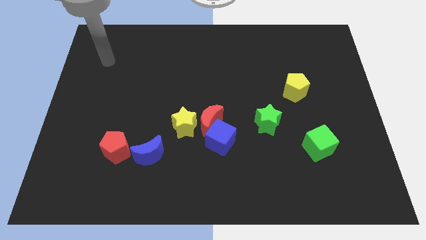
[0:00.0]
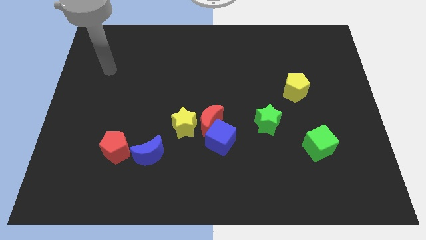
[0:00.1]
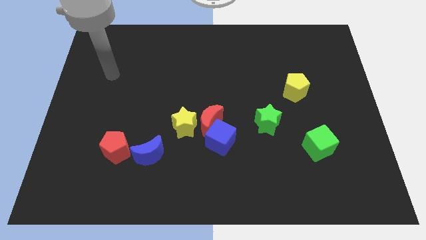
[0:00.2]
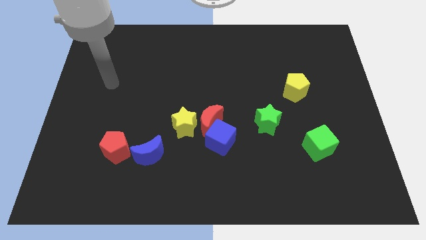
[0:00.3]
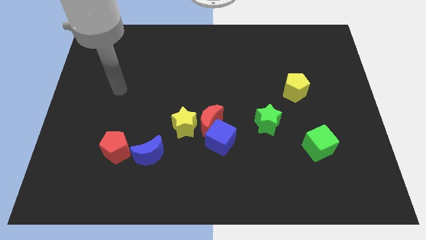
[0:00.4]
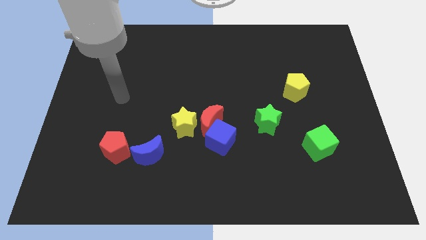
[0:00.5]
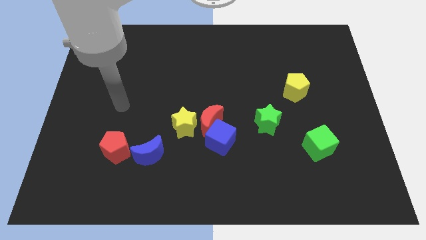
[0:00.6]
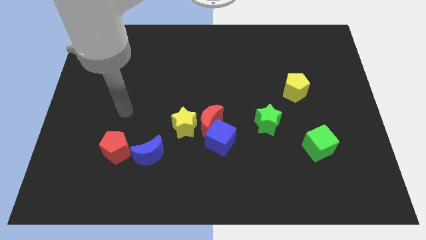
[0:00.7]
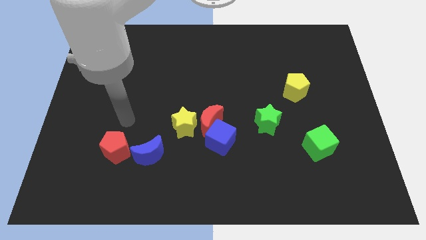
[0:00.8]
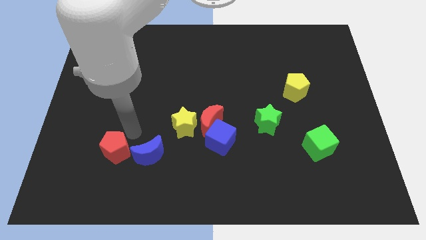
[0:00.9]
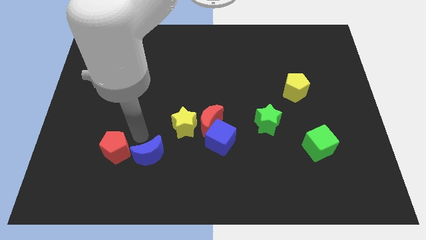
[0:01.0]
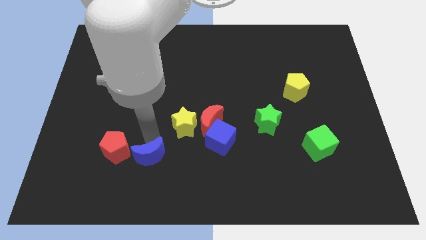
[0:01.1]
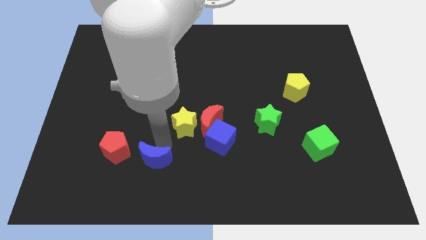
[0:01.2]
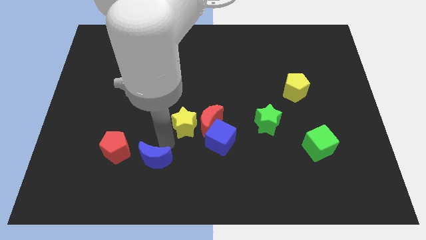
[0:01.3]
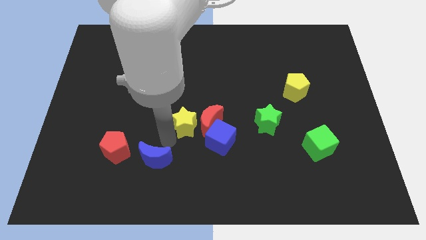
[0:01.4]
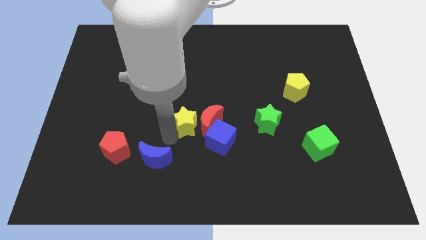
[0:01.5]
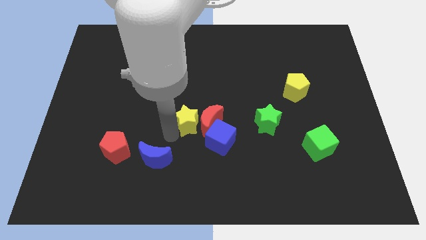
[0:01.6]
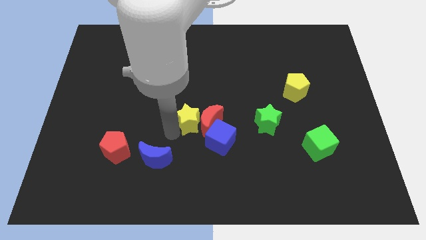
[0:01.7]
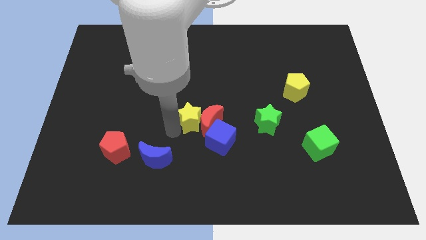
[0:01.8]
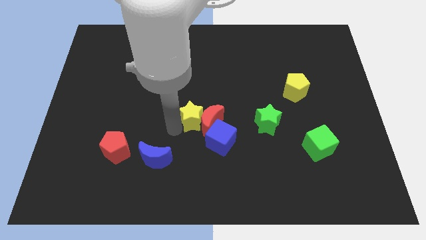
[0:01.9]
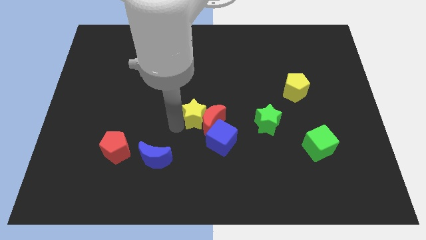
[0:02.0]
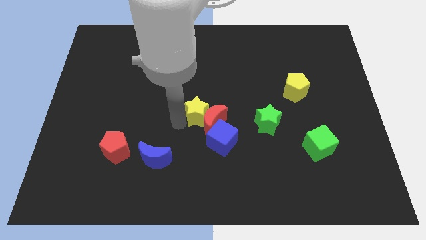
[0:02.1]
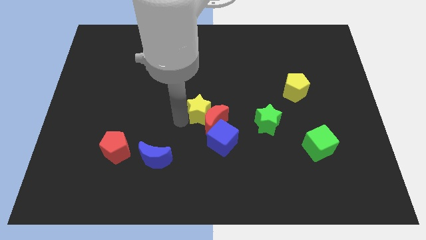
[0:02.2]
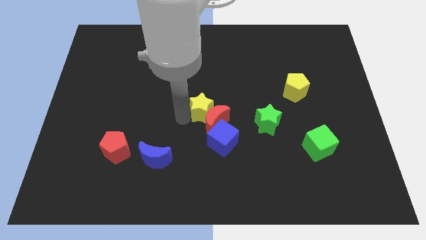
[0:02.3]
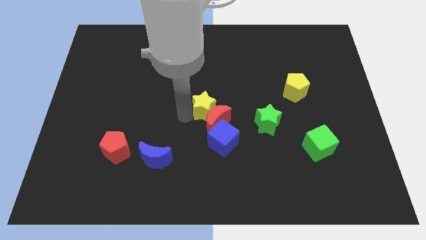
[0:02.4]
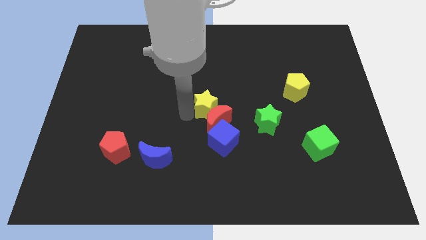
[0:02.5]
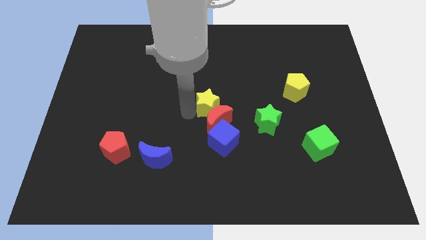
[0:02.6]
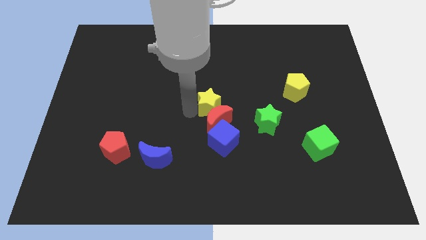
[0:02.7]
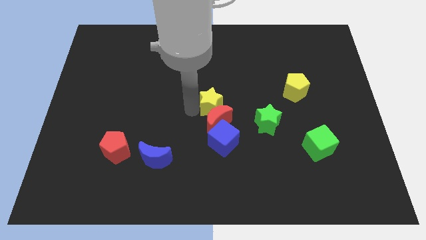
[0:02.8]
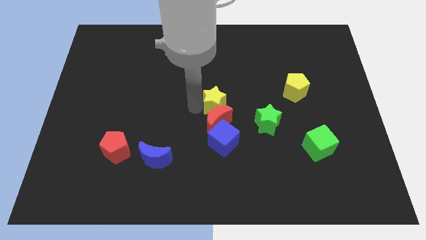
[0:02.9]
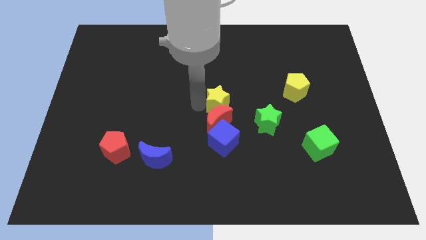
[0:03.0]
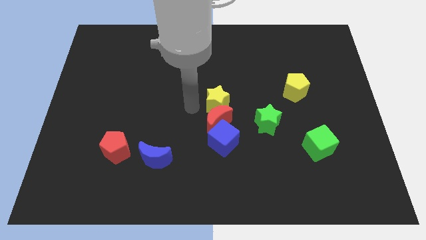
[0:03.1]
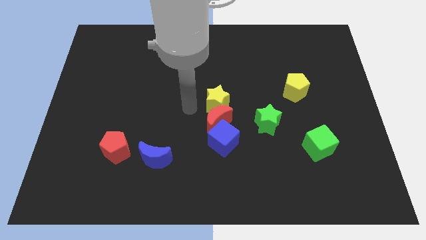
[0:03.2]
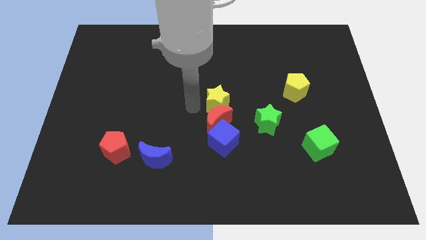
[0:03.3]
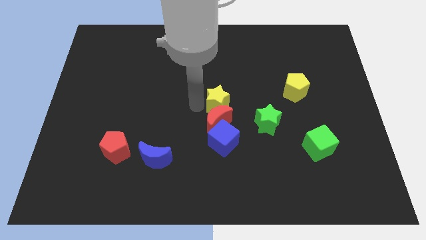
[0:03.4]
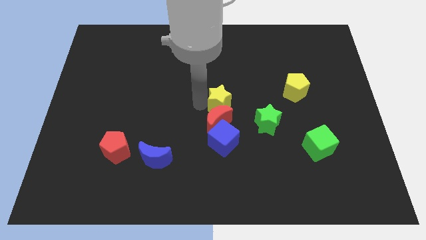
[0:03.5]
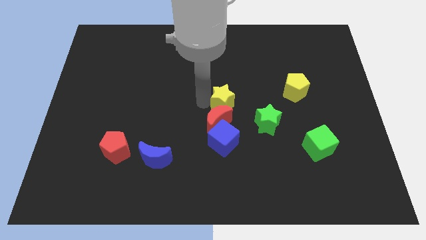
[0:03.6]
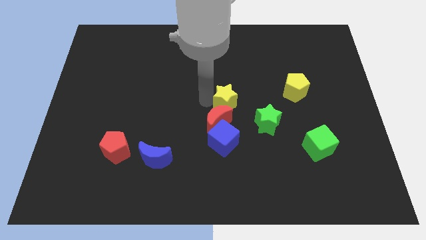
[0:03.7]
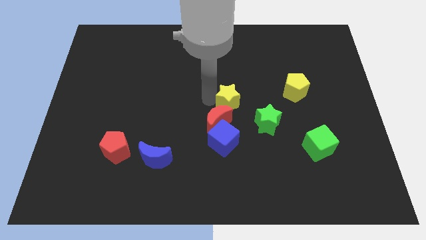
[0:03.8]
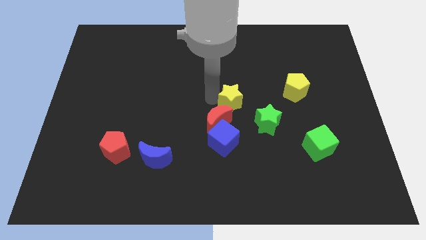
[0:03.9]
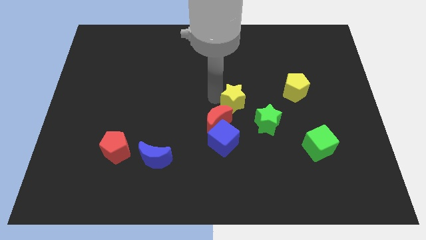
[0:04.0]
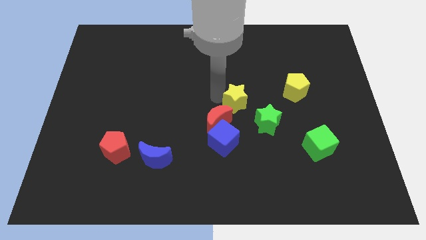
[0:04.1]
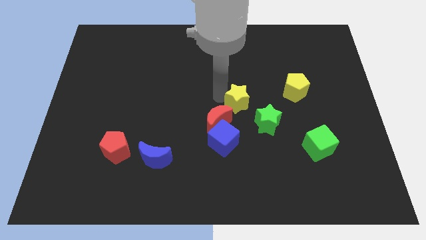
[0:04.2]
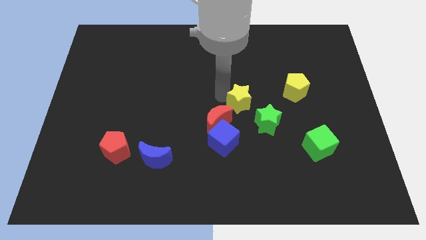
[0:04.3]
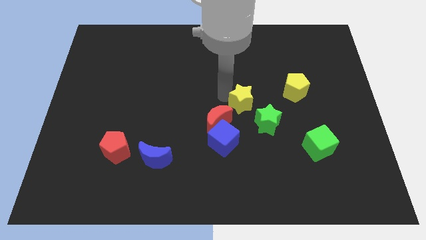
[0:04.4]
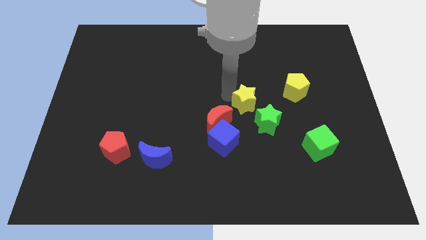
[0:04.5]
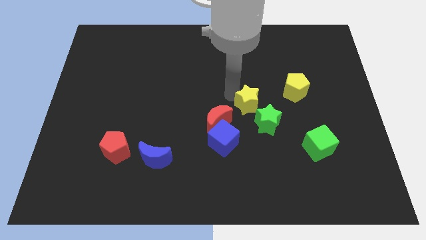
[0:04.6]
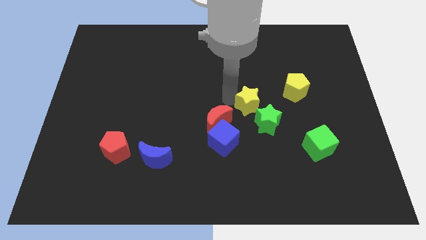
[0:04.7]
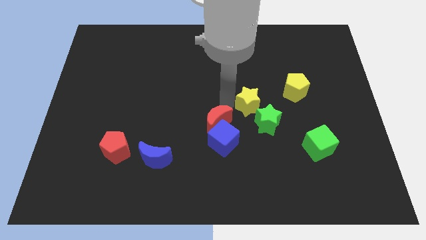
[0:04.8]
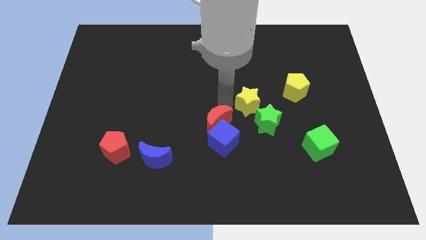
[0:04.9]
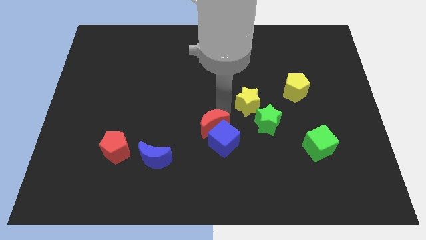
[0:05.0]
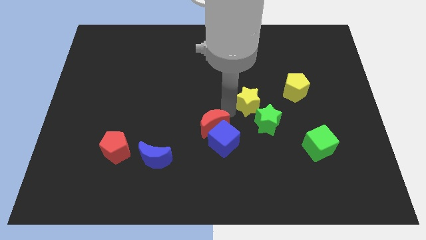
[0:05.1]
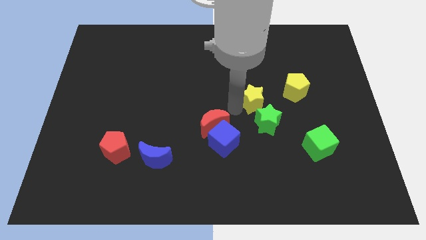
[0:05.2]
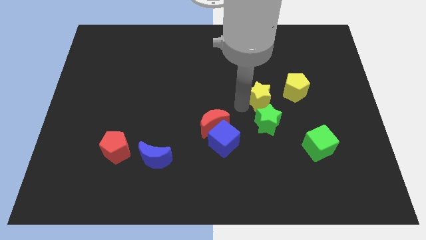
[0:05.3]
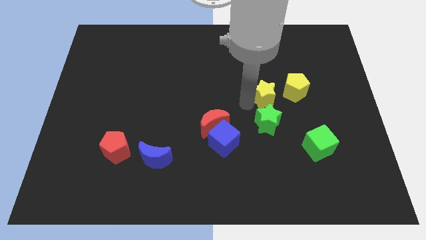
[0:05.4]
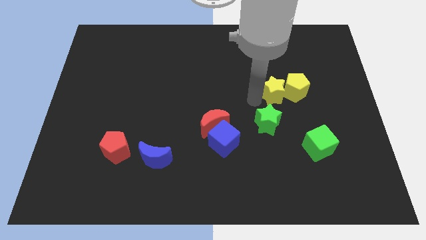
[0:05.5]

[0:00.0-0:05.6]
move the yellow star towards the yellow pentagon

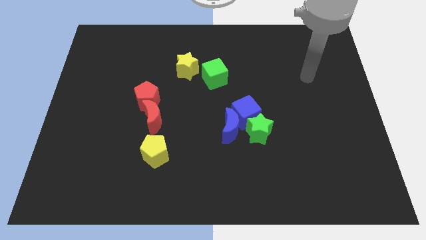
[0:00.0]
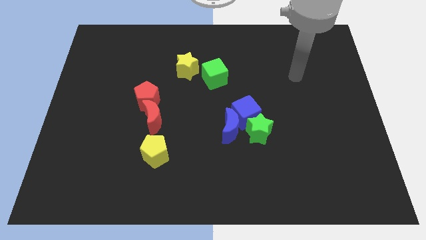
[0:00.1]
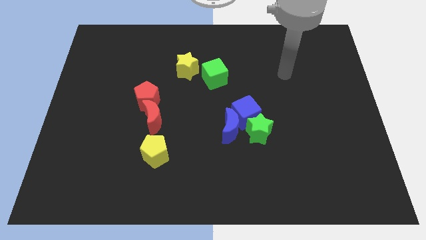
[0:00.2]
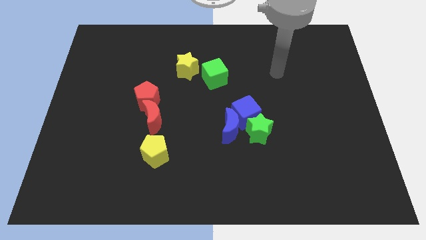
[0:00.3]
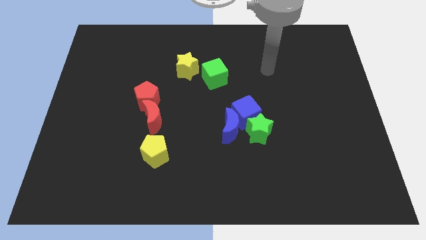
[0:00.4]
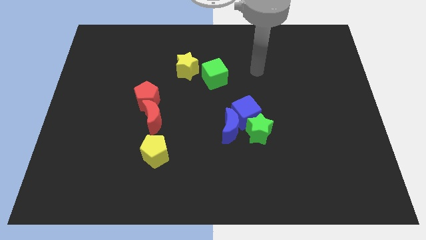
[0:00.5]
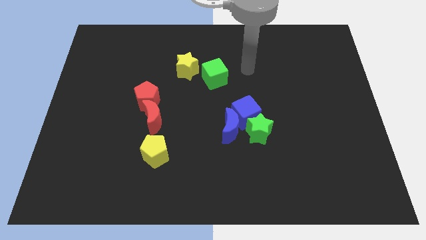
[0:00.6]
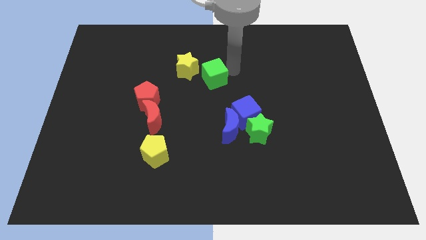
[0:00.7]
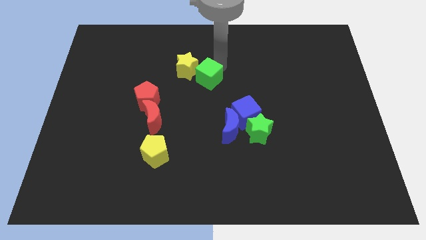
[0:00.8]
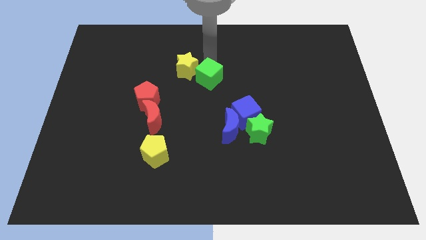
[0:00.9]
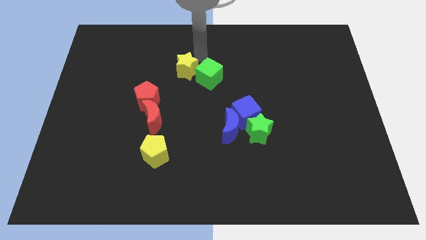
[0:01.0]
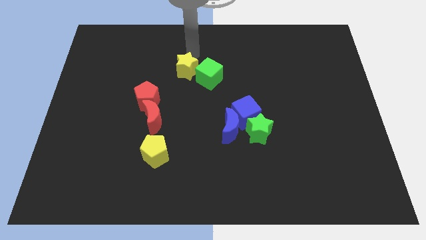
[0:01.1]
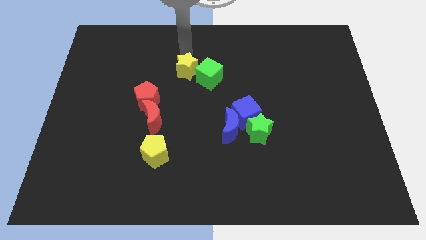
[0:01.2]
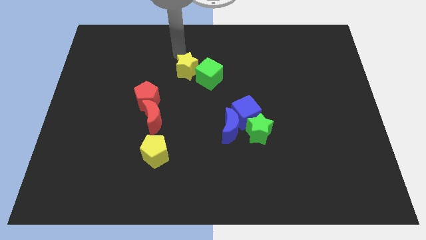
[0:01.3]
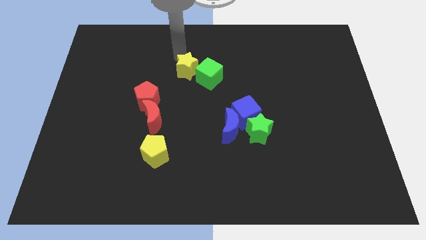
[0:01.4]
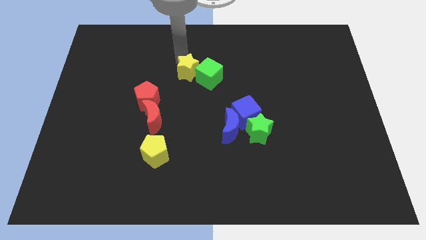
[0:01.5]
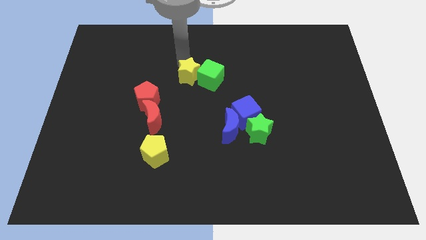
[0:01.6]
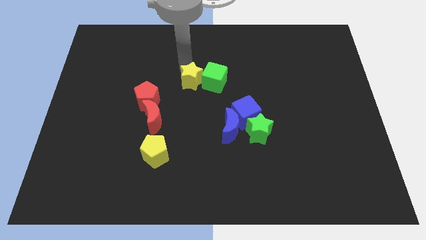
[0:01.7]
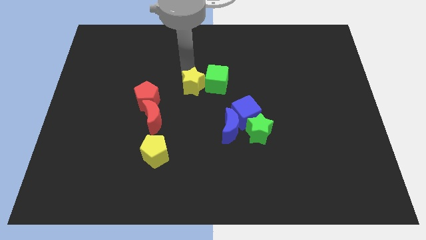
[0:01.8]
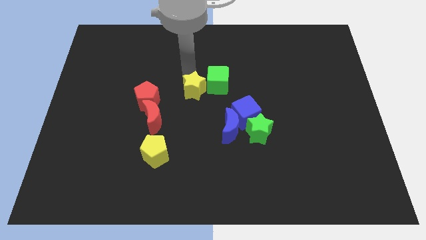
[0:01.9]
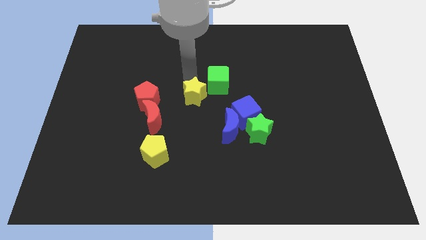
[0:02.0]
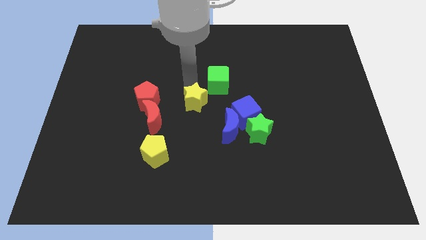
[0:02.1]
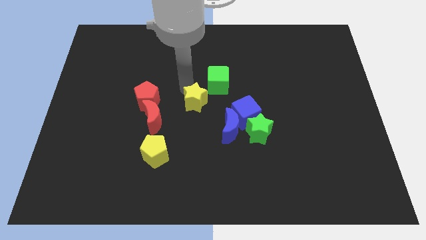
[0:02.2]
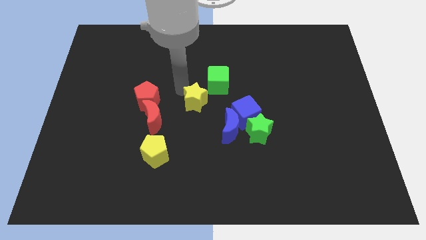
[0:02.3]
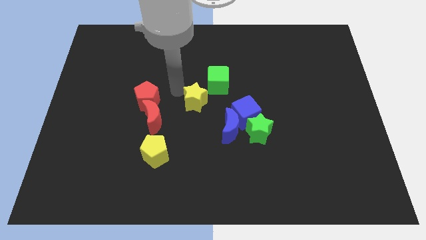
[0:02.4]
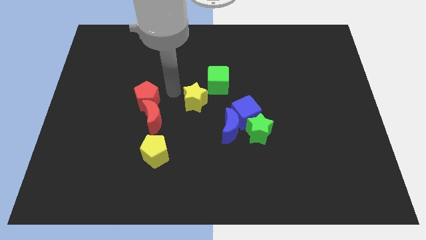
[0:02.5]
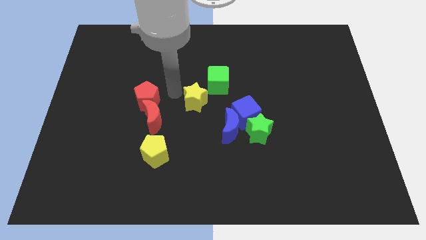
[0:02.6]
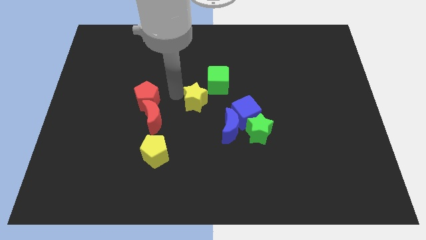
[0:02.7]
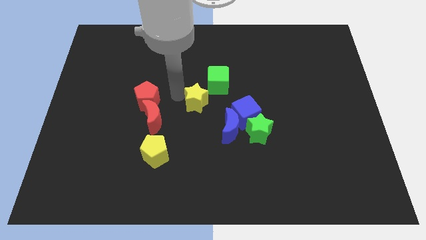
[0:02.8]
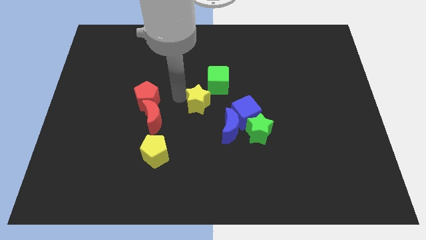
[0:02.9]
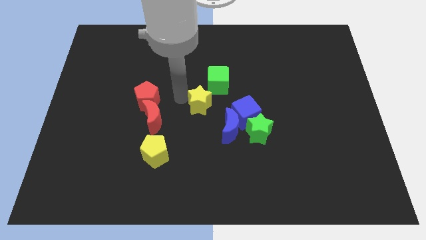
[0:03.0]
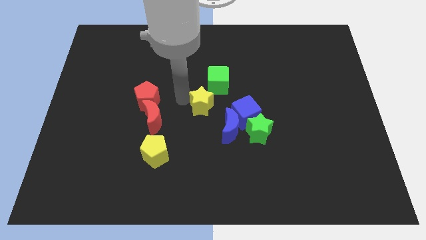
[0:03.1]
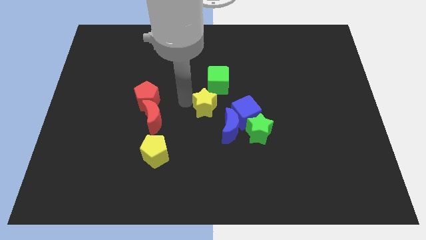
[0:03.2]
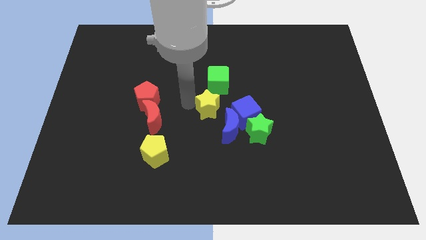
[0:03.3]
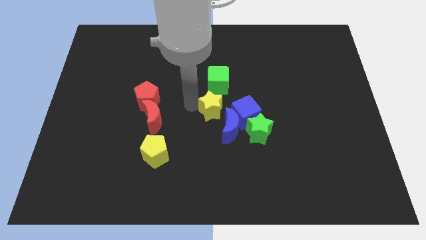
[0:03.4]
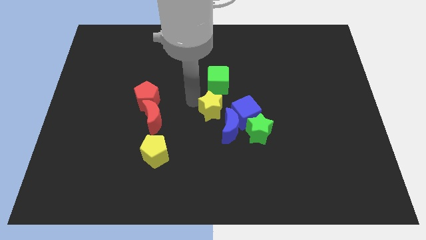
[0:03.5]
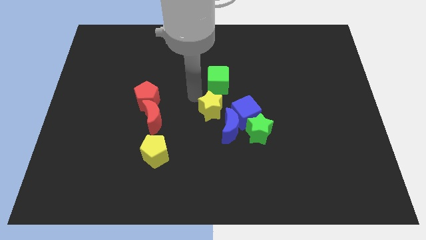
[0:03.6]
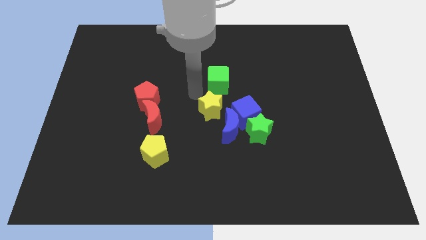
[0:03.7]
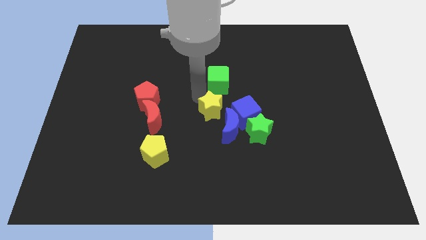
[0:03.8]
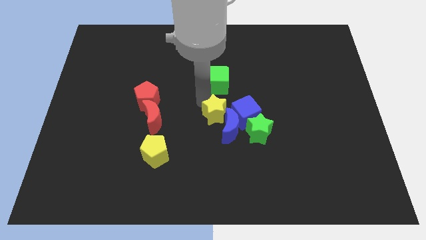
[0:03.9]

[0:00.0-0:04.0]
slide the yellow star next to the blue moon
